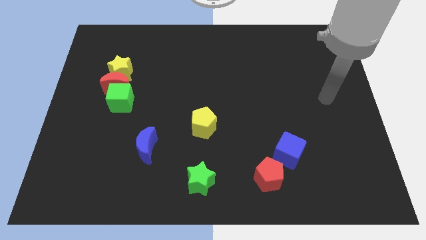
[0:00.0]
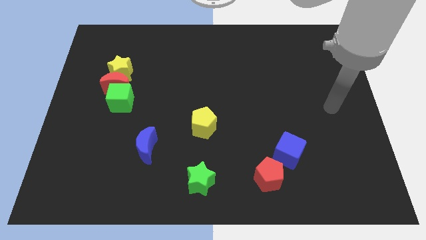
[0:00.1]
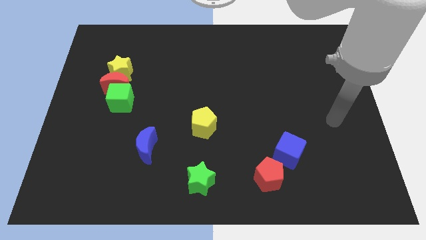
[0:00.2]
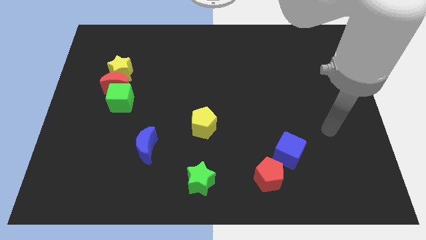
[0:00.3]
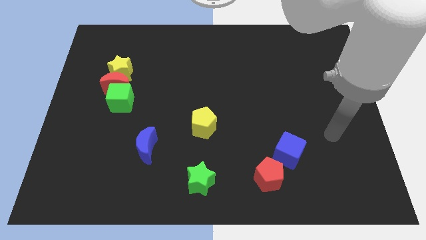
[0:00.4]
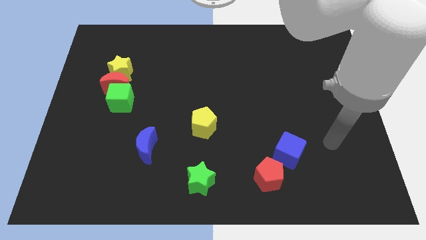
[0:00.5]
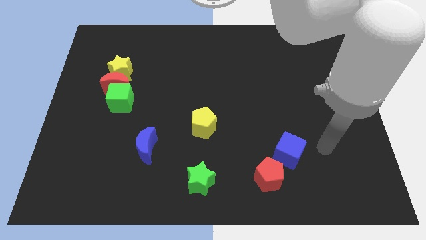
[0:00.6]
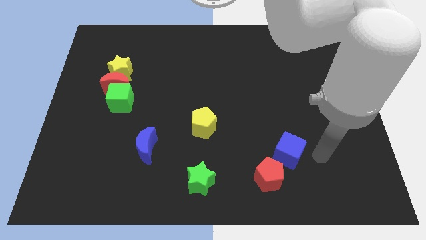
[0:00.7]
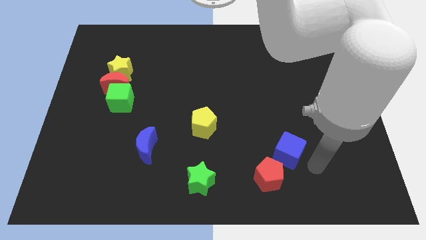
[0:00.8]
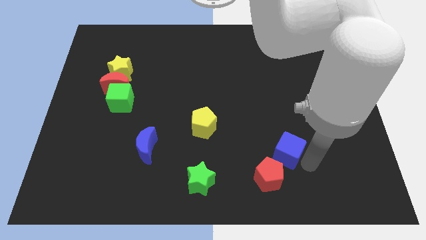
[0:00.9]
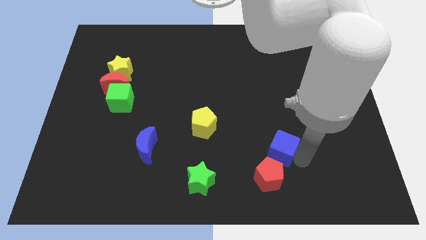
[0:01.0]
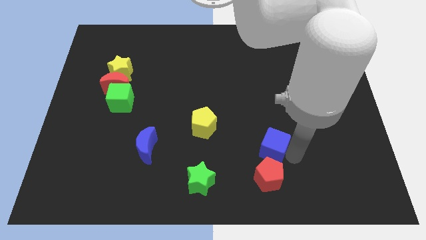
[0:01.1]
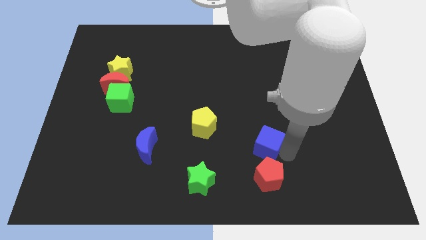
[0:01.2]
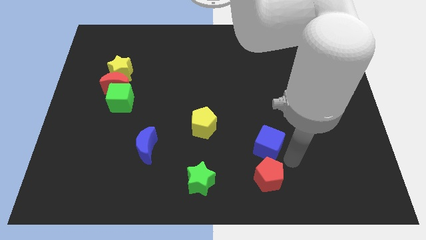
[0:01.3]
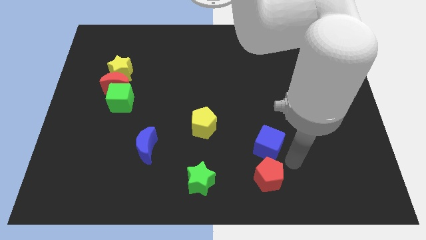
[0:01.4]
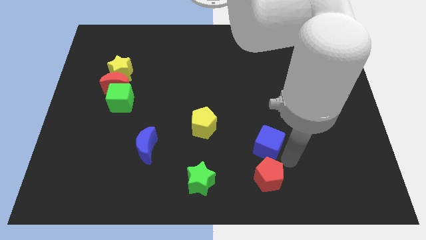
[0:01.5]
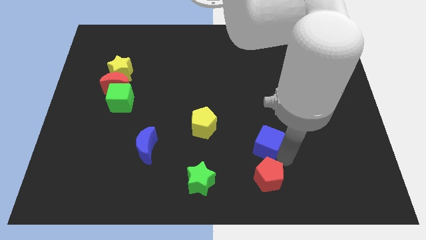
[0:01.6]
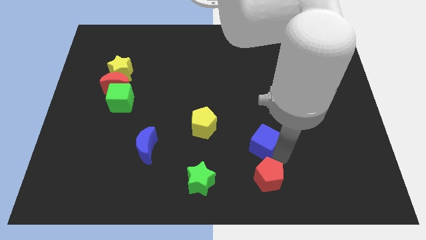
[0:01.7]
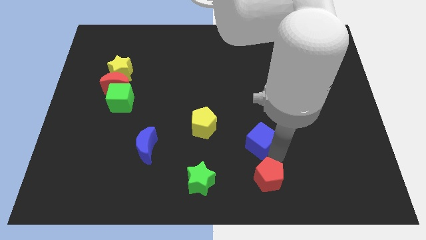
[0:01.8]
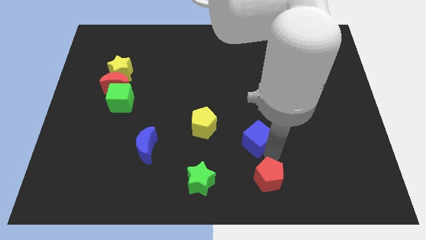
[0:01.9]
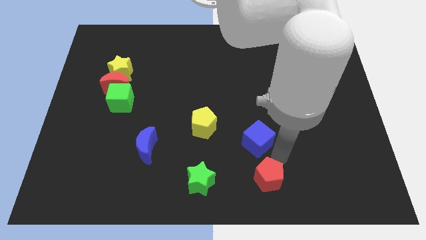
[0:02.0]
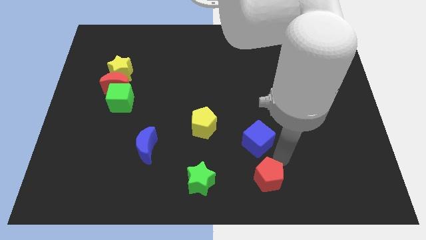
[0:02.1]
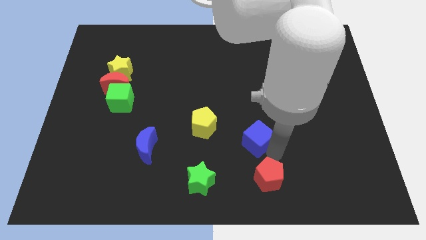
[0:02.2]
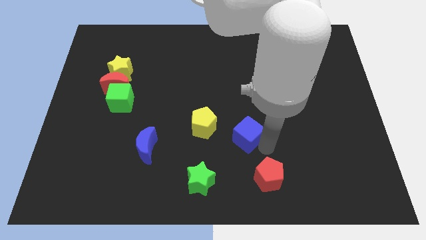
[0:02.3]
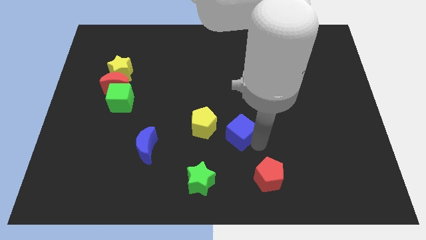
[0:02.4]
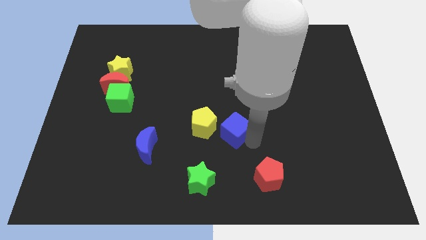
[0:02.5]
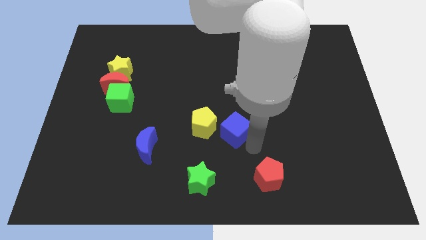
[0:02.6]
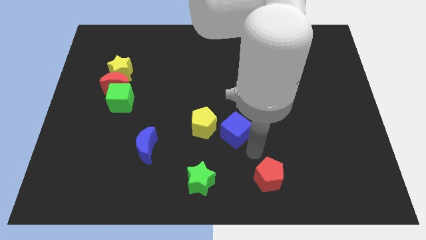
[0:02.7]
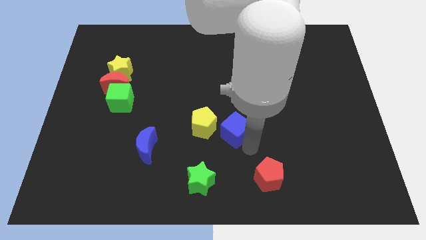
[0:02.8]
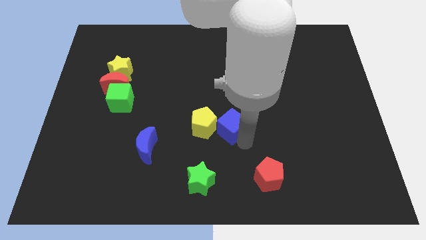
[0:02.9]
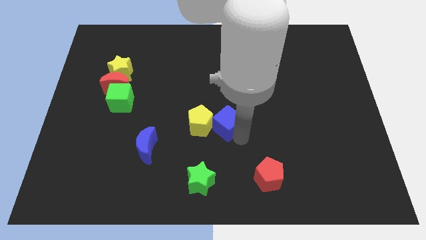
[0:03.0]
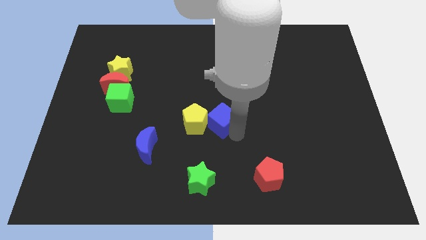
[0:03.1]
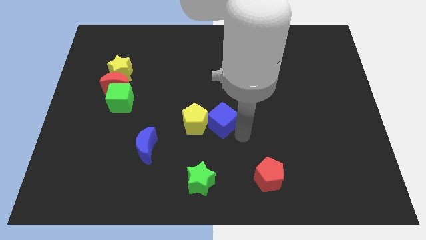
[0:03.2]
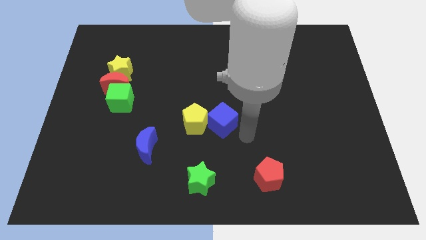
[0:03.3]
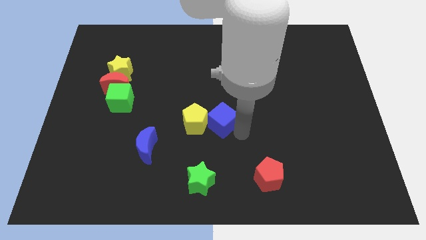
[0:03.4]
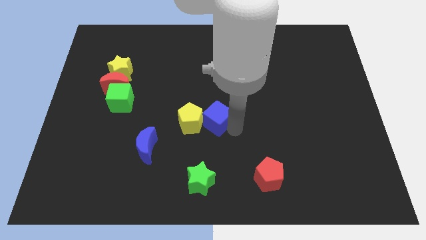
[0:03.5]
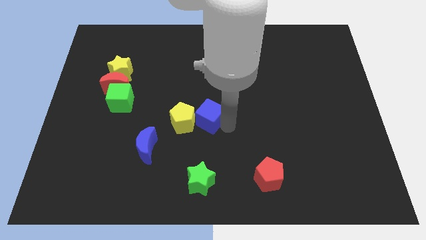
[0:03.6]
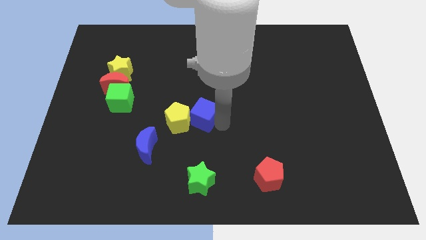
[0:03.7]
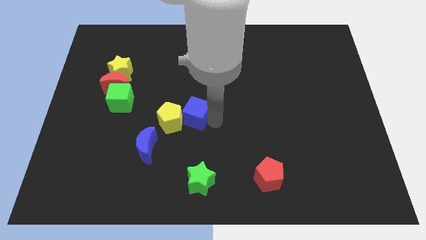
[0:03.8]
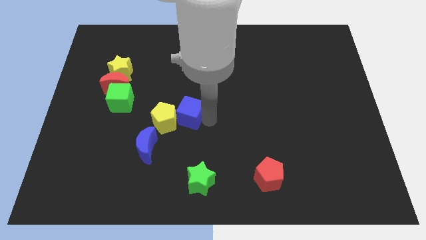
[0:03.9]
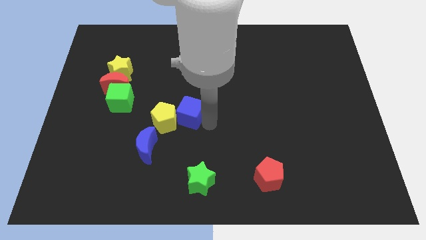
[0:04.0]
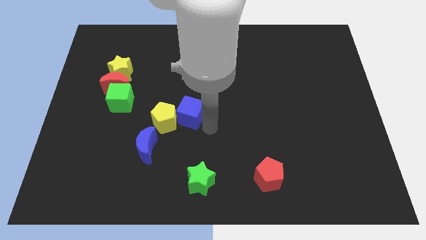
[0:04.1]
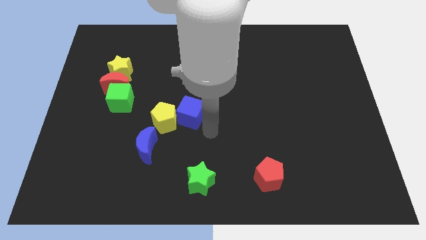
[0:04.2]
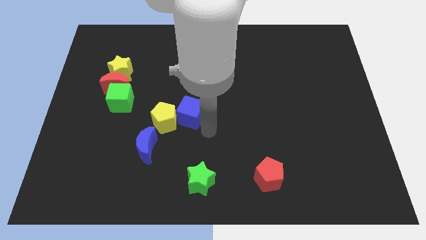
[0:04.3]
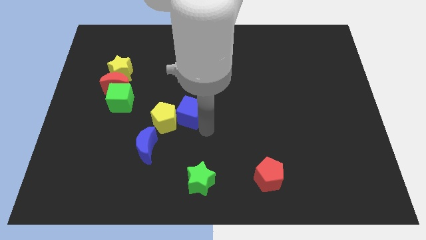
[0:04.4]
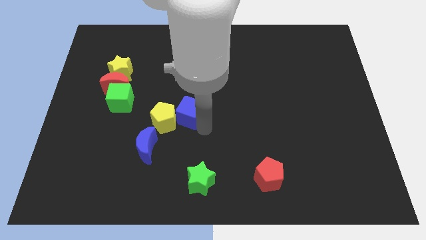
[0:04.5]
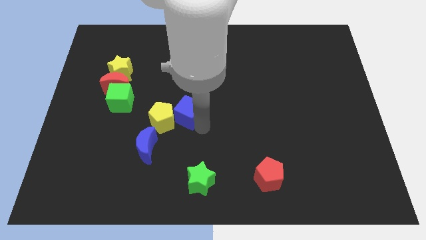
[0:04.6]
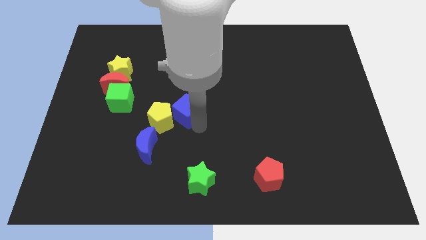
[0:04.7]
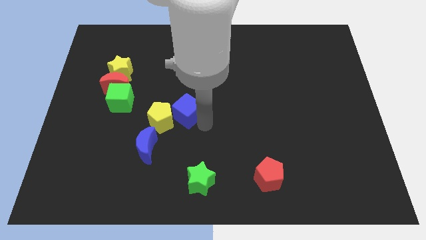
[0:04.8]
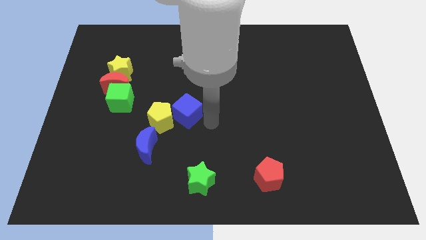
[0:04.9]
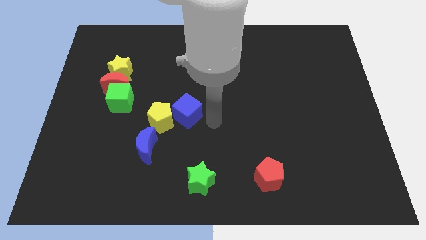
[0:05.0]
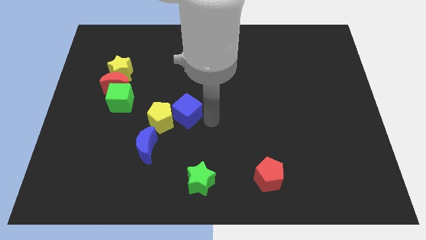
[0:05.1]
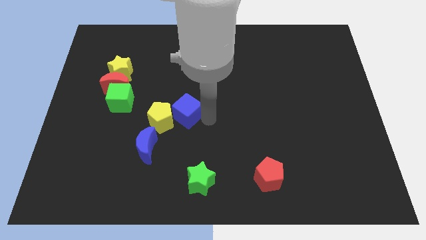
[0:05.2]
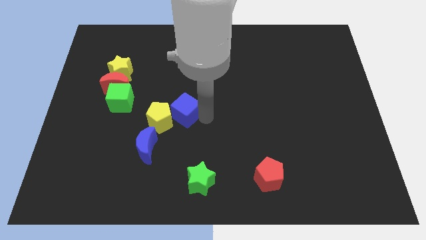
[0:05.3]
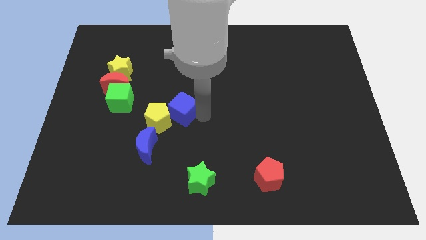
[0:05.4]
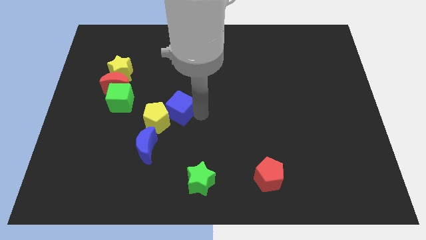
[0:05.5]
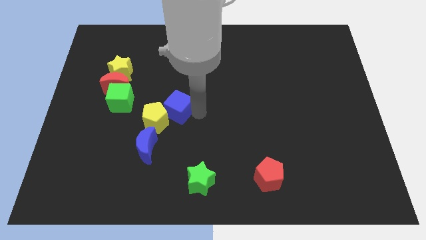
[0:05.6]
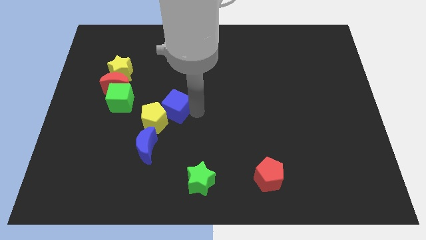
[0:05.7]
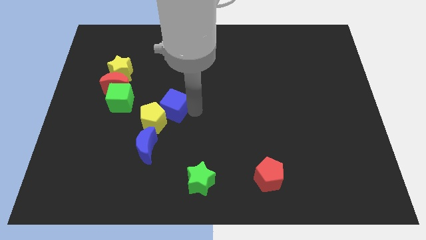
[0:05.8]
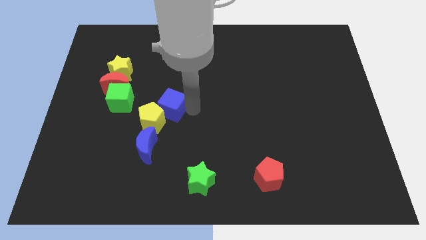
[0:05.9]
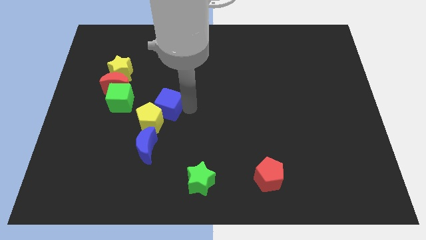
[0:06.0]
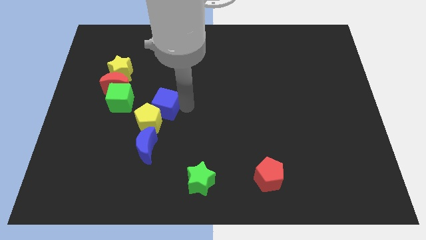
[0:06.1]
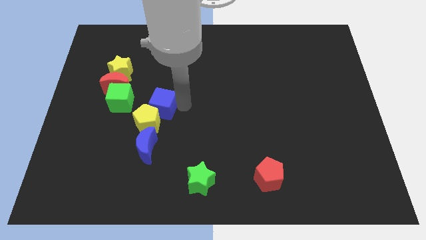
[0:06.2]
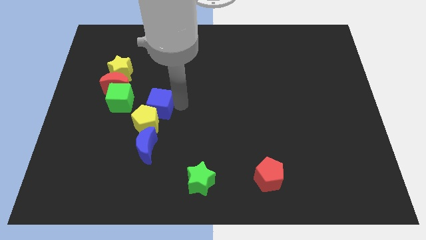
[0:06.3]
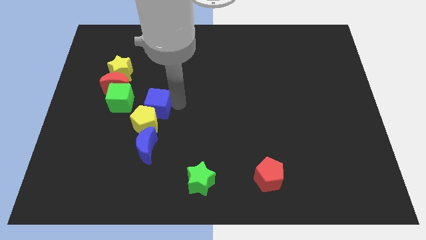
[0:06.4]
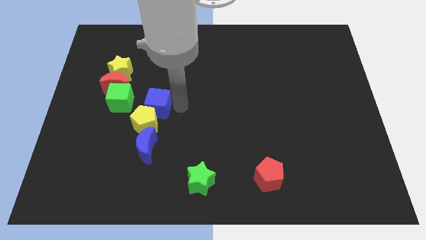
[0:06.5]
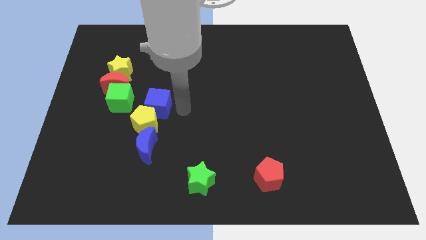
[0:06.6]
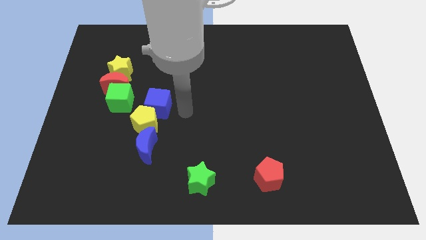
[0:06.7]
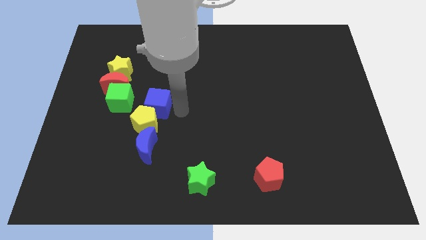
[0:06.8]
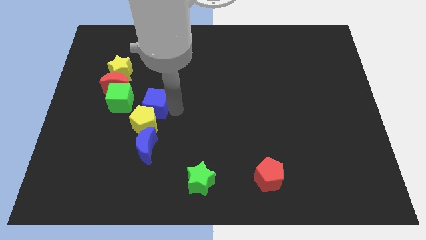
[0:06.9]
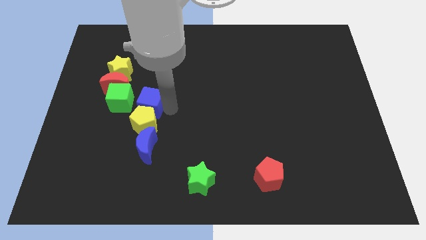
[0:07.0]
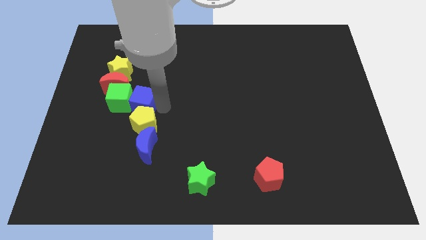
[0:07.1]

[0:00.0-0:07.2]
push the blue cube next to the green cube

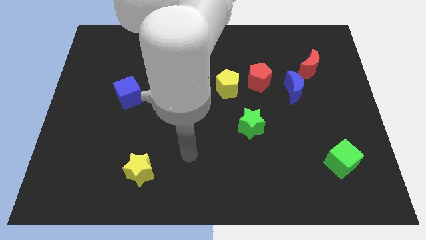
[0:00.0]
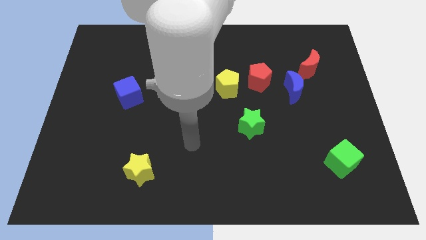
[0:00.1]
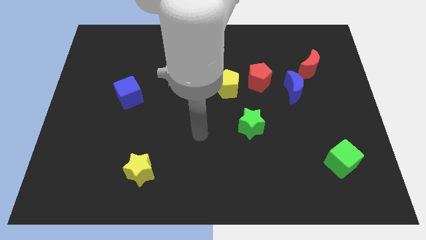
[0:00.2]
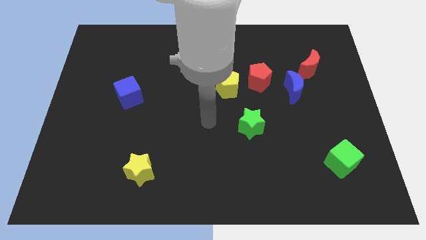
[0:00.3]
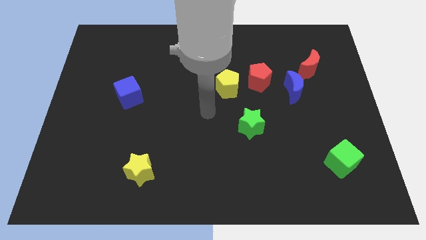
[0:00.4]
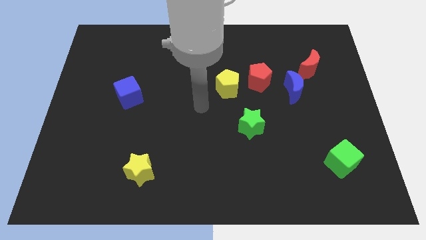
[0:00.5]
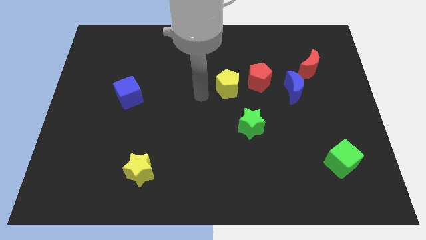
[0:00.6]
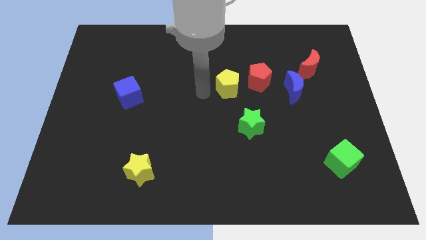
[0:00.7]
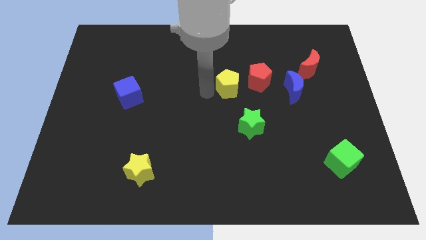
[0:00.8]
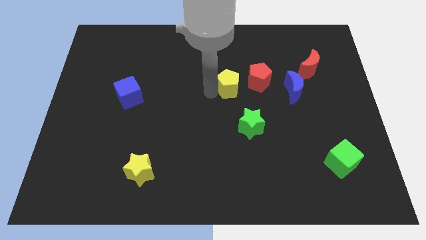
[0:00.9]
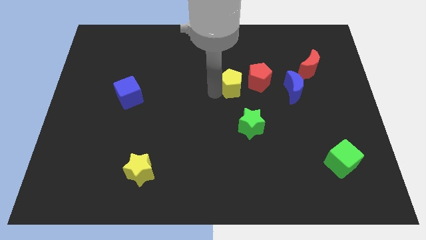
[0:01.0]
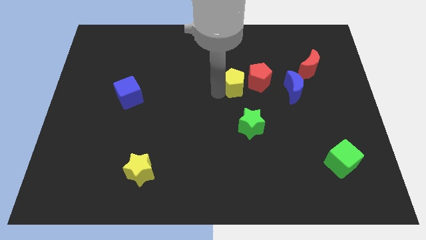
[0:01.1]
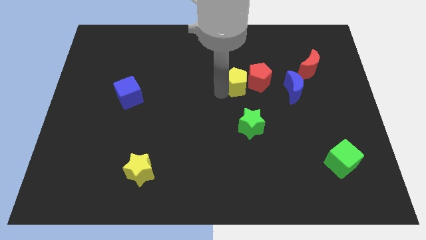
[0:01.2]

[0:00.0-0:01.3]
move the yellow pentagon next to the red pentagon
